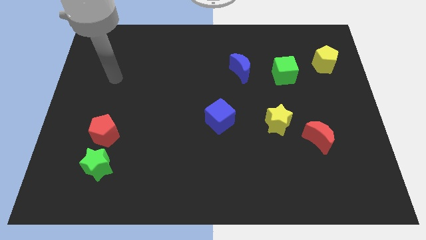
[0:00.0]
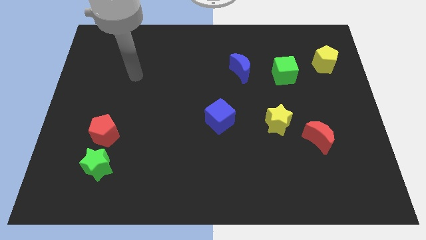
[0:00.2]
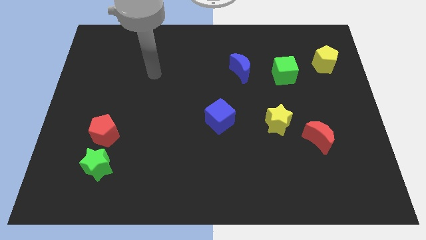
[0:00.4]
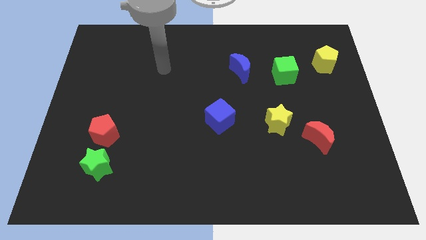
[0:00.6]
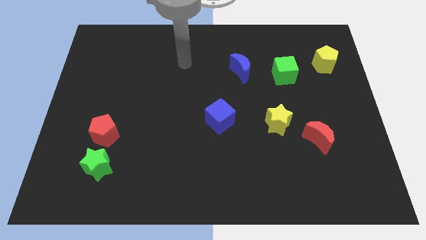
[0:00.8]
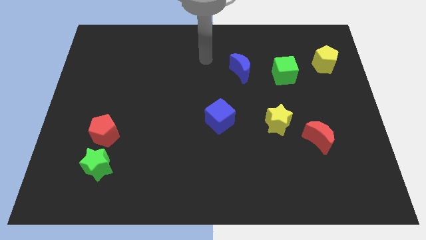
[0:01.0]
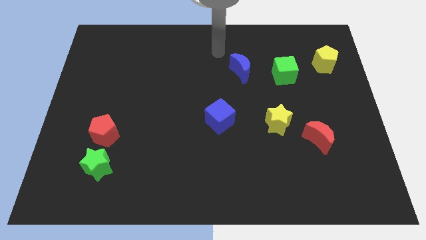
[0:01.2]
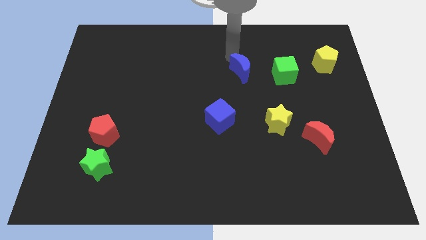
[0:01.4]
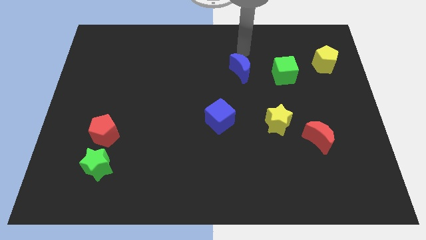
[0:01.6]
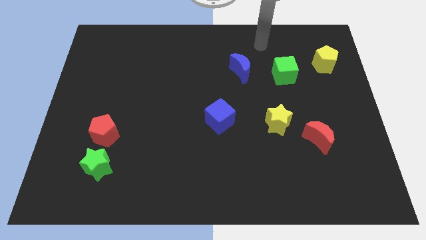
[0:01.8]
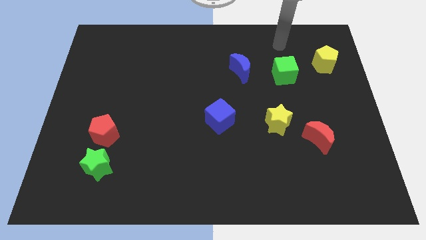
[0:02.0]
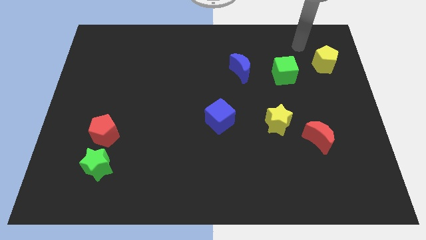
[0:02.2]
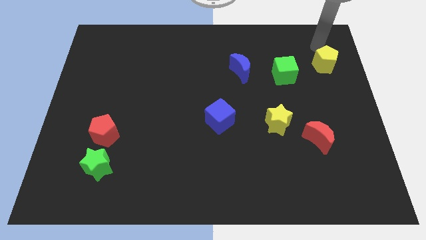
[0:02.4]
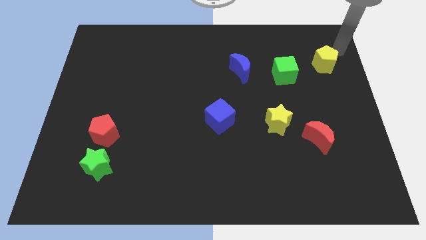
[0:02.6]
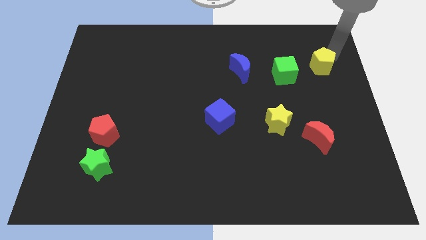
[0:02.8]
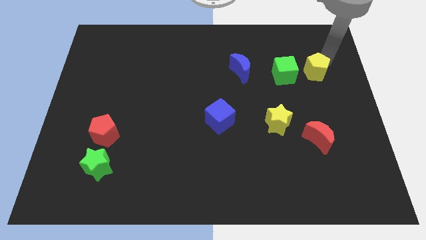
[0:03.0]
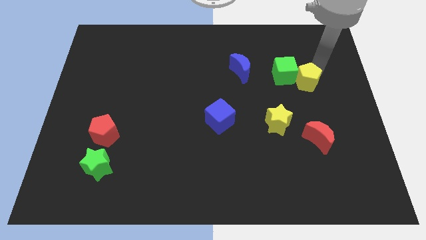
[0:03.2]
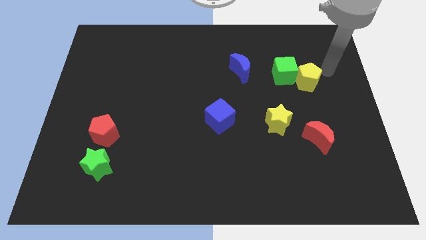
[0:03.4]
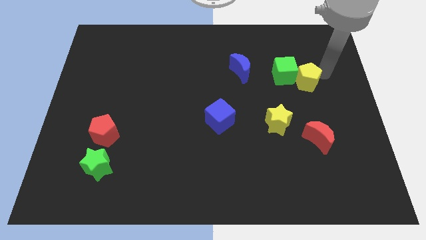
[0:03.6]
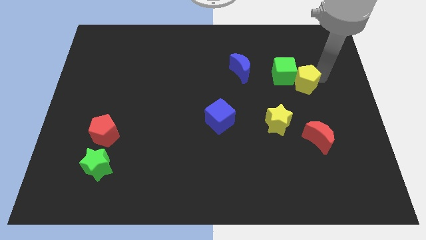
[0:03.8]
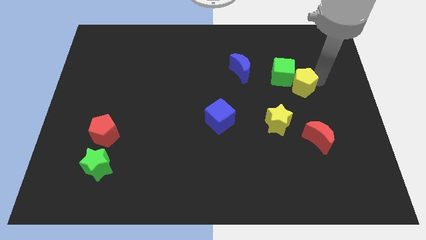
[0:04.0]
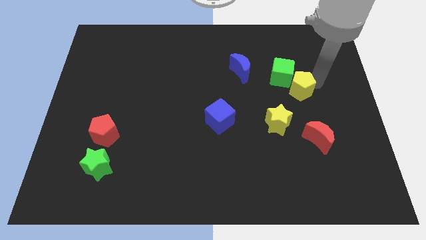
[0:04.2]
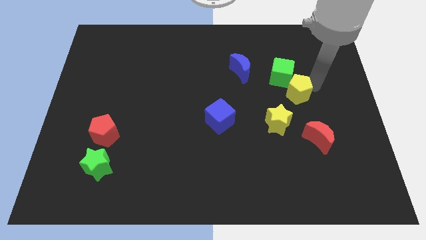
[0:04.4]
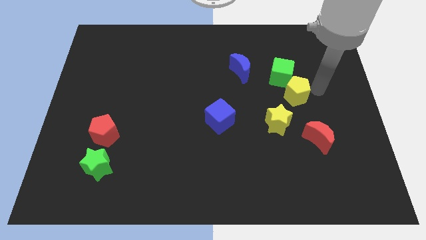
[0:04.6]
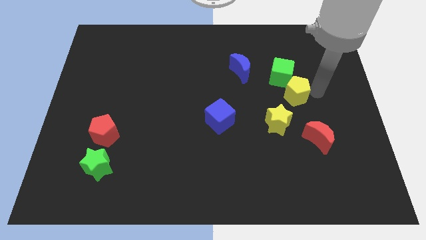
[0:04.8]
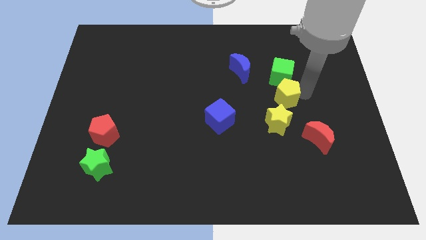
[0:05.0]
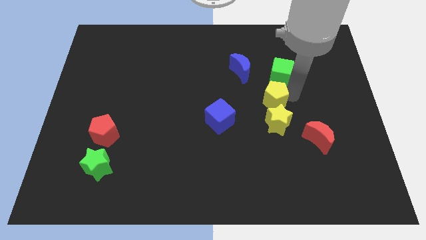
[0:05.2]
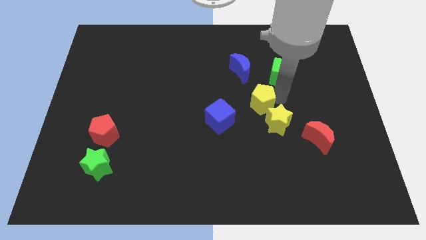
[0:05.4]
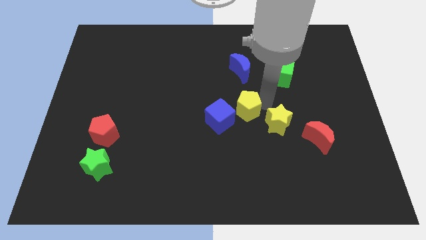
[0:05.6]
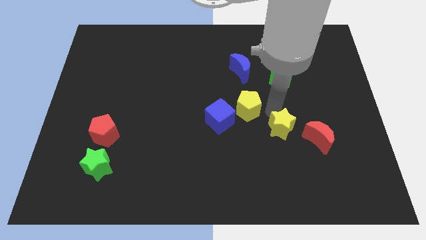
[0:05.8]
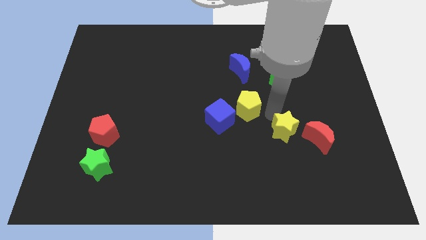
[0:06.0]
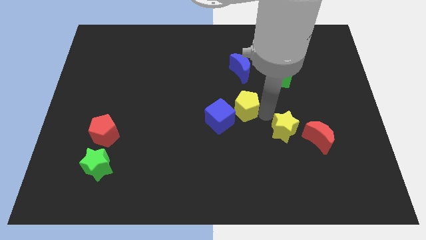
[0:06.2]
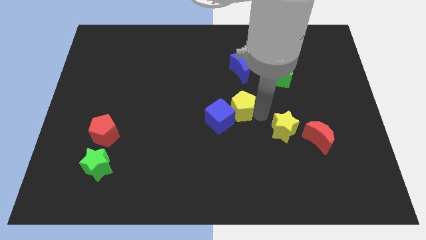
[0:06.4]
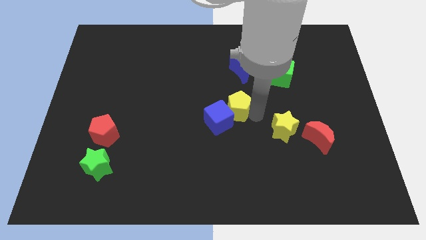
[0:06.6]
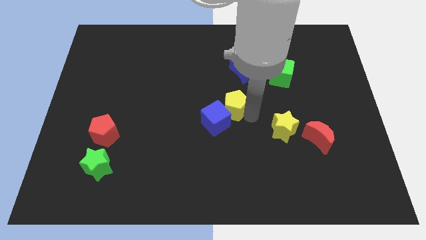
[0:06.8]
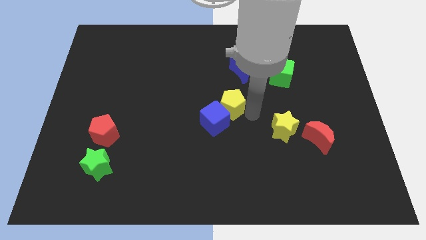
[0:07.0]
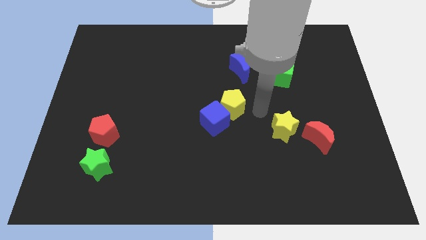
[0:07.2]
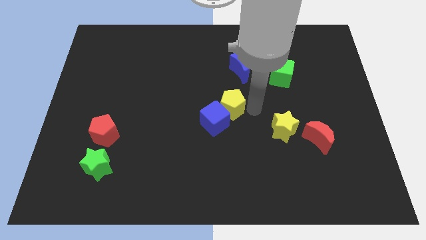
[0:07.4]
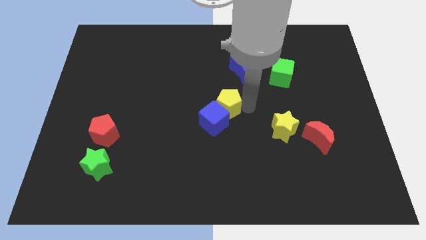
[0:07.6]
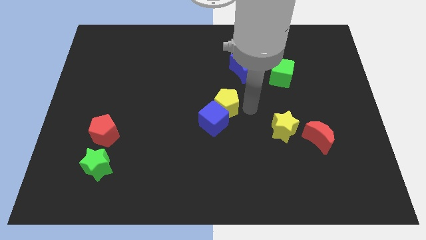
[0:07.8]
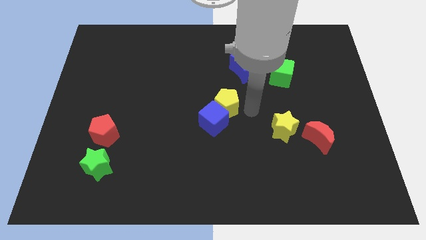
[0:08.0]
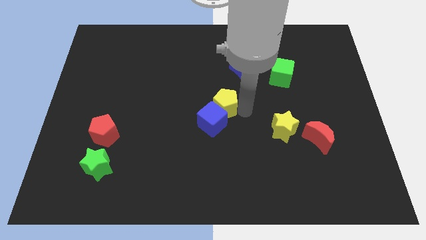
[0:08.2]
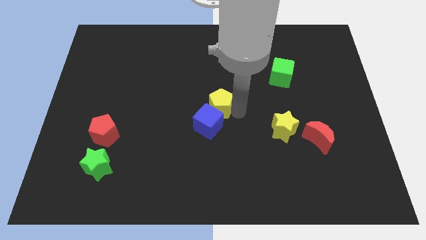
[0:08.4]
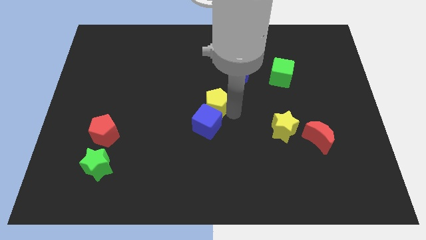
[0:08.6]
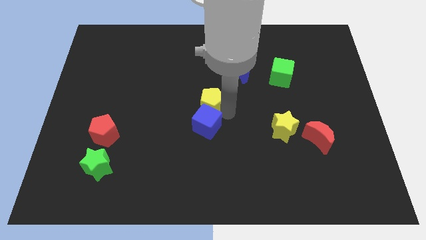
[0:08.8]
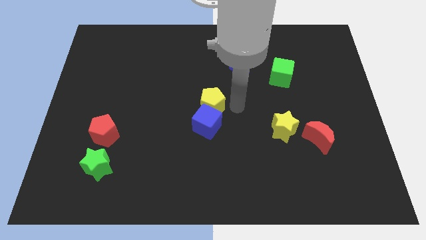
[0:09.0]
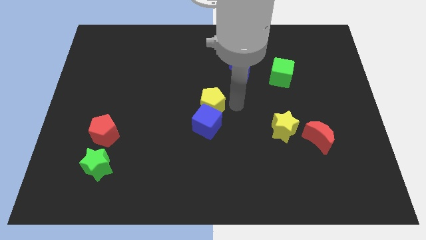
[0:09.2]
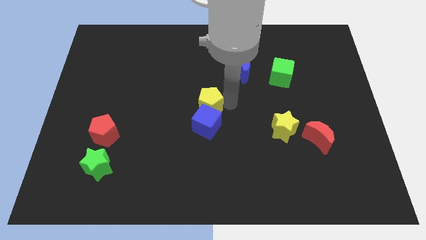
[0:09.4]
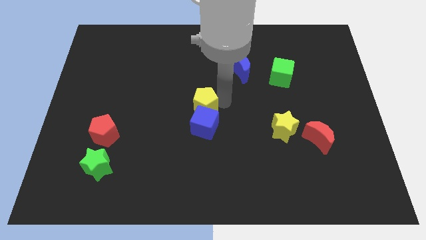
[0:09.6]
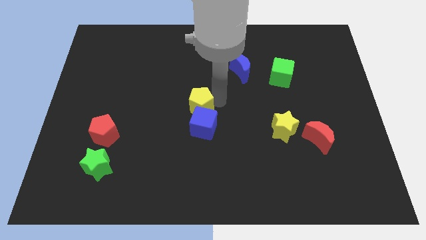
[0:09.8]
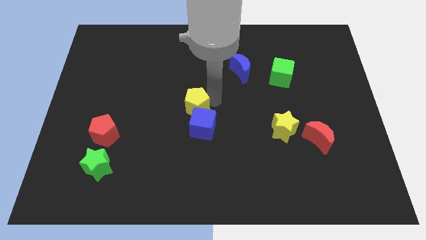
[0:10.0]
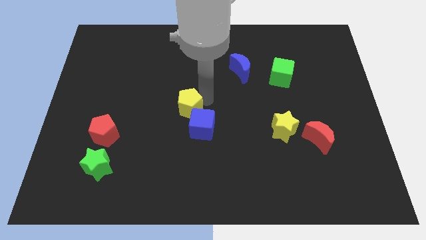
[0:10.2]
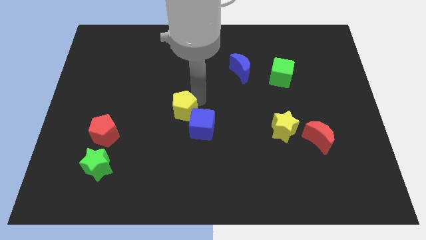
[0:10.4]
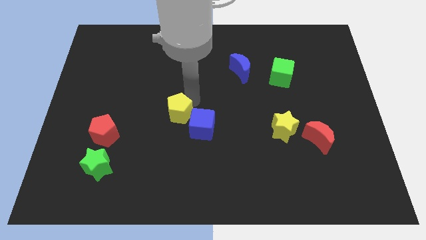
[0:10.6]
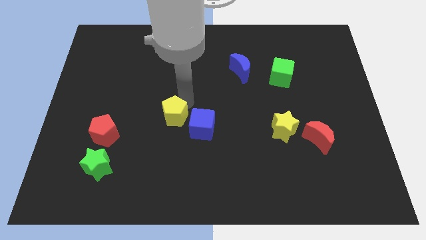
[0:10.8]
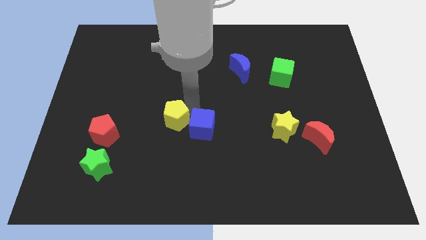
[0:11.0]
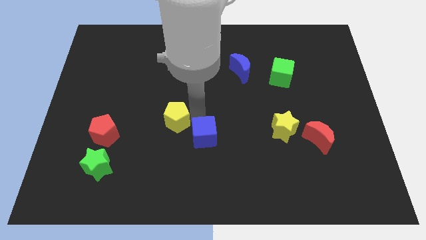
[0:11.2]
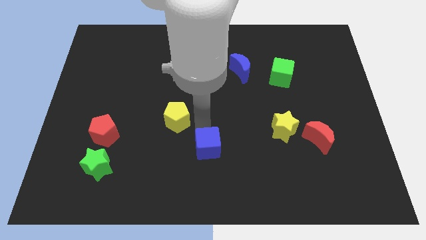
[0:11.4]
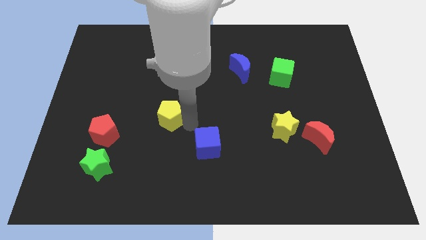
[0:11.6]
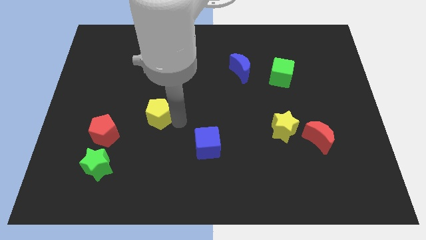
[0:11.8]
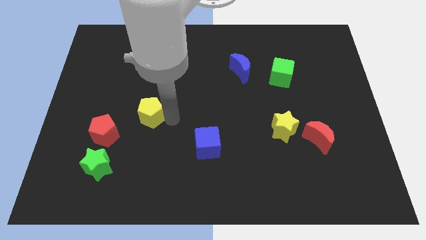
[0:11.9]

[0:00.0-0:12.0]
move the yellow pentagon to the top right side of the red pentagon
